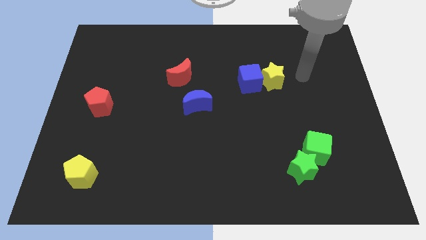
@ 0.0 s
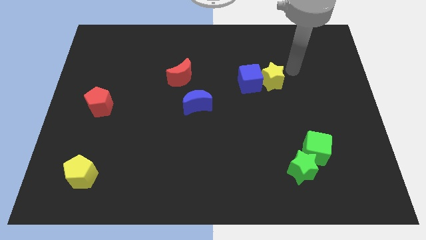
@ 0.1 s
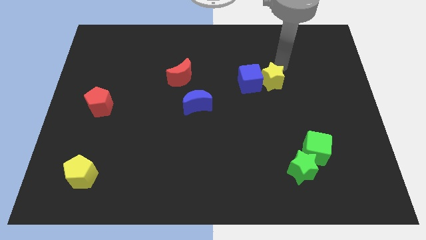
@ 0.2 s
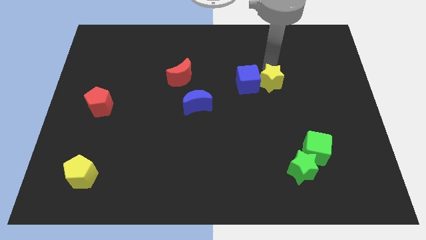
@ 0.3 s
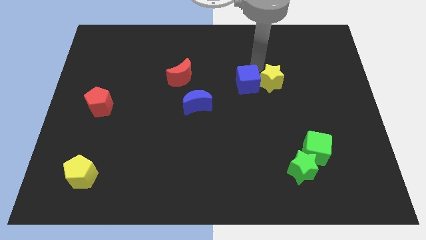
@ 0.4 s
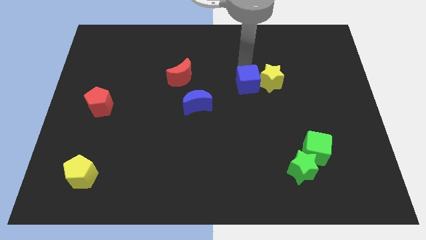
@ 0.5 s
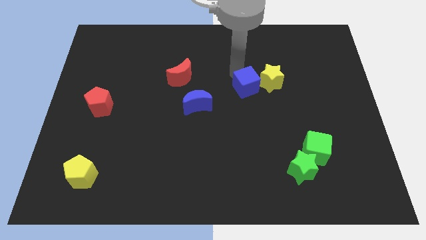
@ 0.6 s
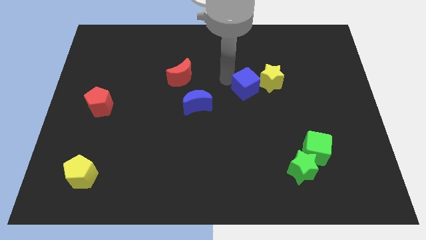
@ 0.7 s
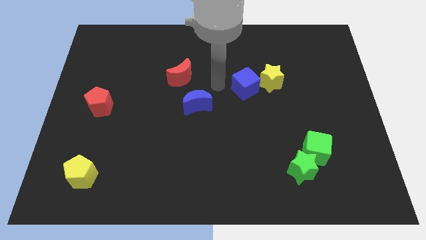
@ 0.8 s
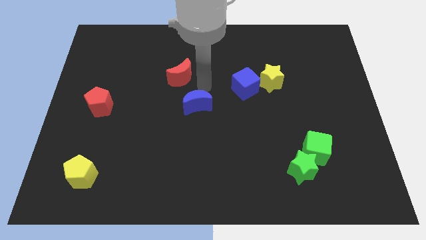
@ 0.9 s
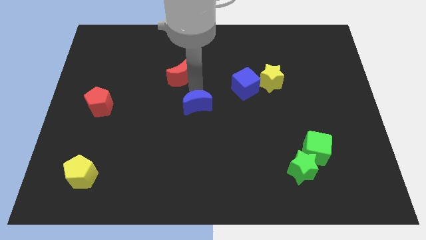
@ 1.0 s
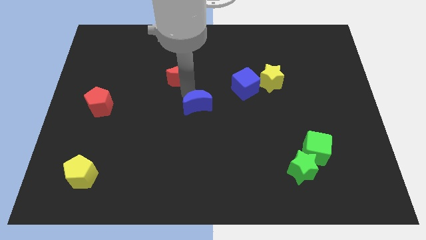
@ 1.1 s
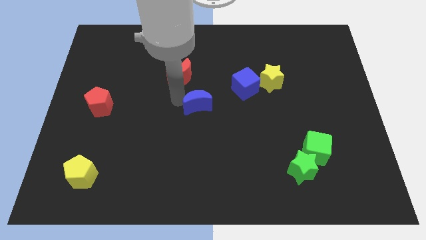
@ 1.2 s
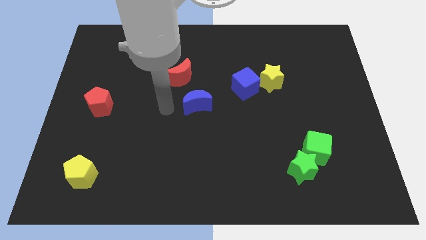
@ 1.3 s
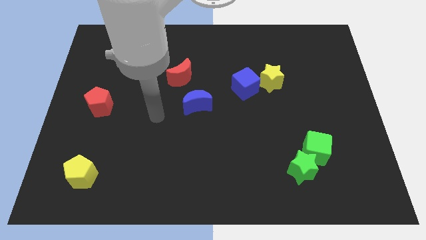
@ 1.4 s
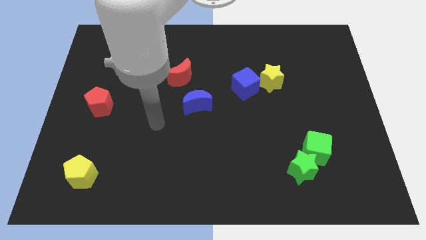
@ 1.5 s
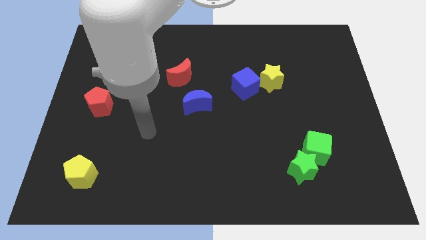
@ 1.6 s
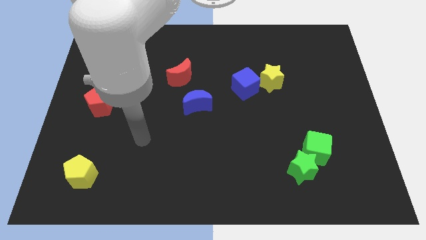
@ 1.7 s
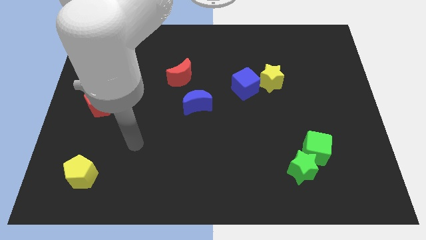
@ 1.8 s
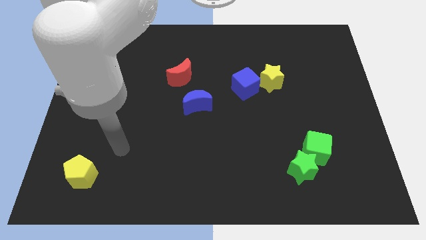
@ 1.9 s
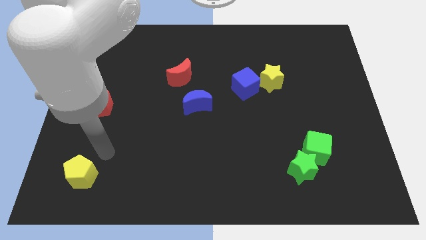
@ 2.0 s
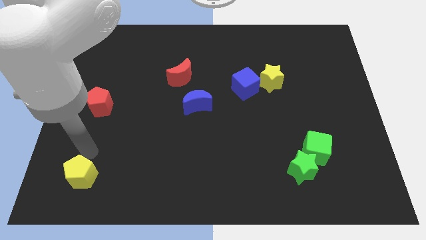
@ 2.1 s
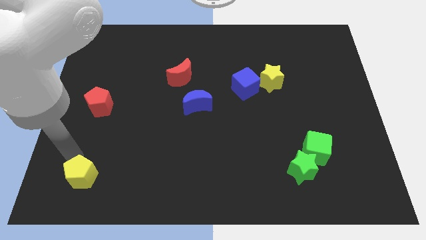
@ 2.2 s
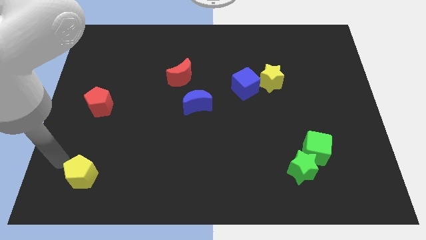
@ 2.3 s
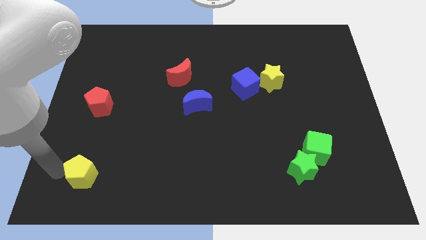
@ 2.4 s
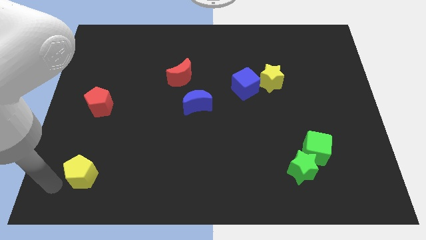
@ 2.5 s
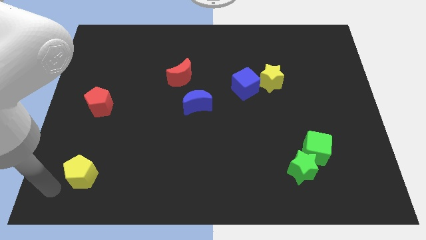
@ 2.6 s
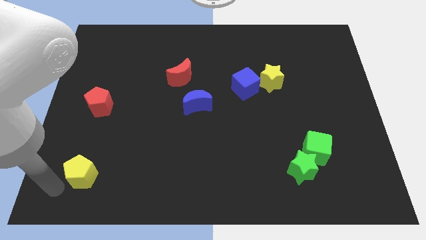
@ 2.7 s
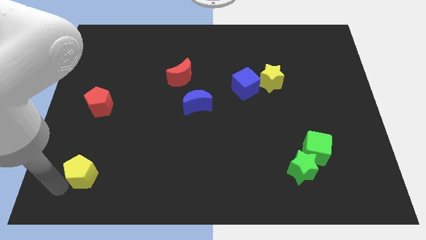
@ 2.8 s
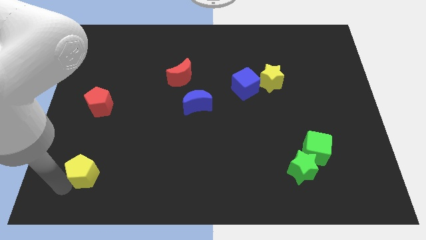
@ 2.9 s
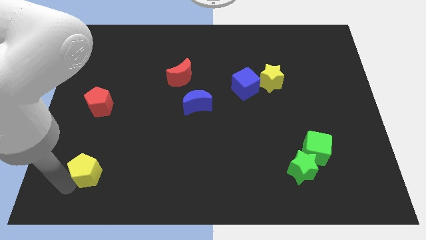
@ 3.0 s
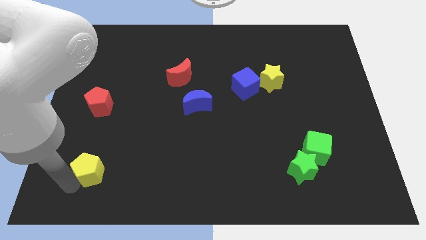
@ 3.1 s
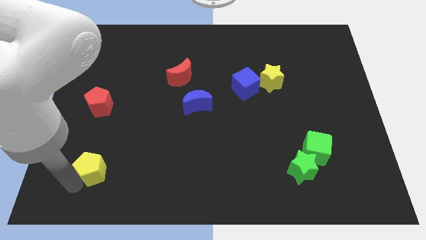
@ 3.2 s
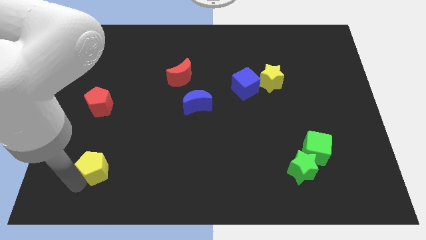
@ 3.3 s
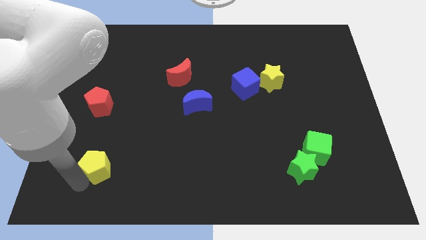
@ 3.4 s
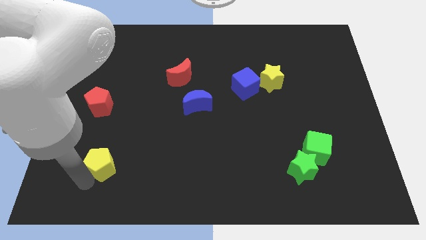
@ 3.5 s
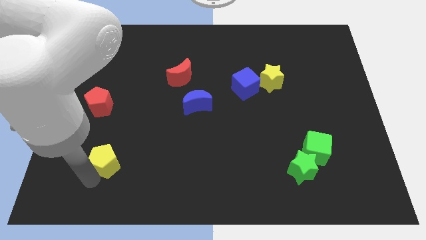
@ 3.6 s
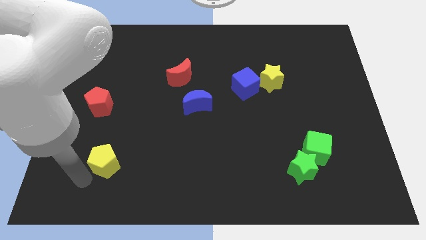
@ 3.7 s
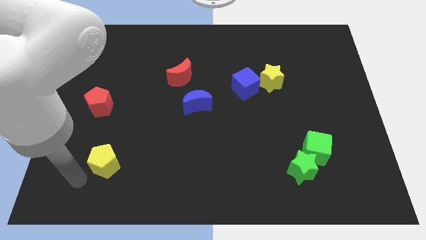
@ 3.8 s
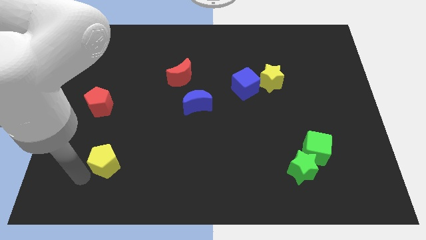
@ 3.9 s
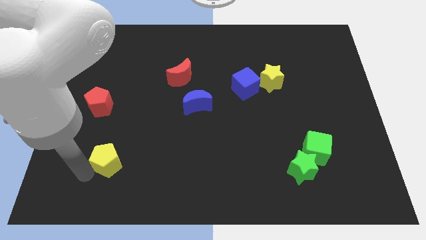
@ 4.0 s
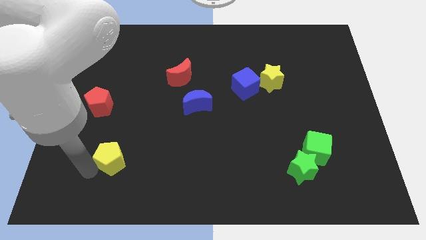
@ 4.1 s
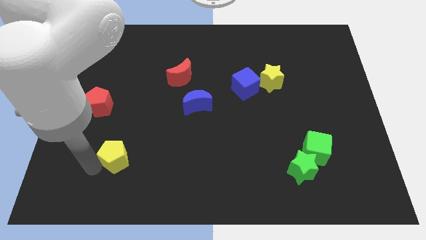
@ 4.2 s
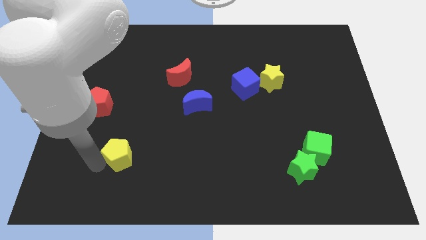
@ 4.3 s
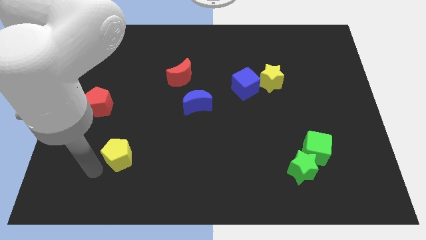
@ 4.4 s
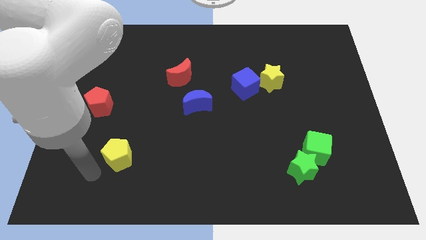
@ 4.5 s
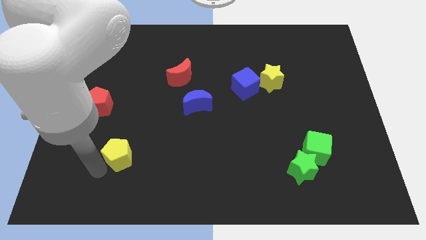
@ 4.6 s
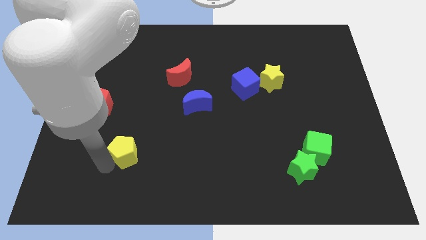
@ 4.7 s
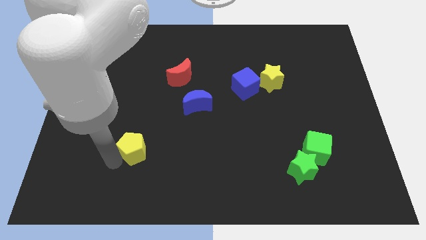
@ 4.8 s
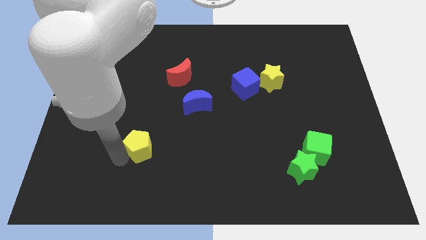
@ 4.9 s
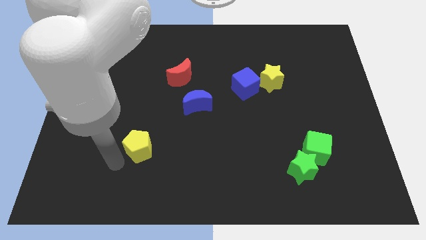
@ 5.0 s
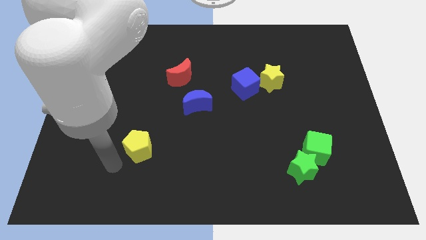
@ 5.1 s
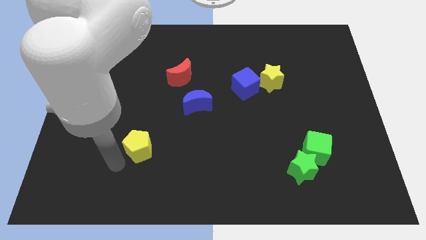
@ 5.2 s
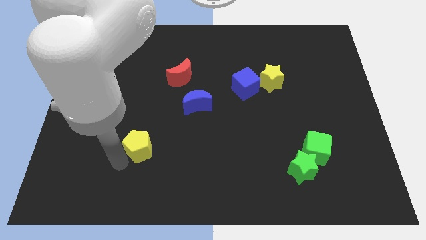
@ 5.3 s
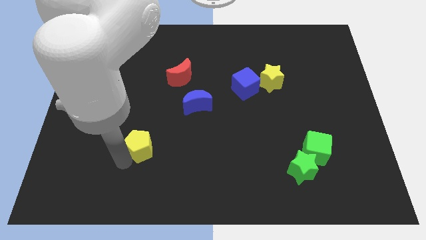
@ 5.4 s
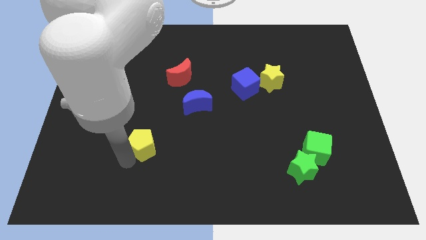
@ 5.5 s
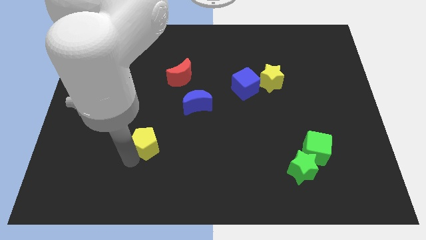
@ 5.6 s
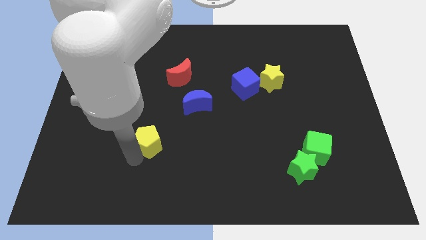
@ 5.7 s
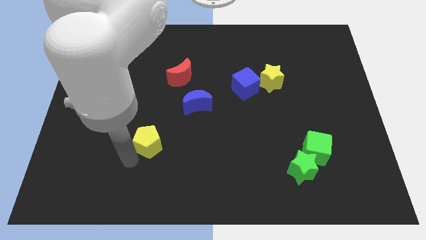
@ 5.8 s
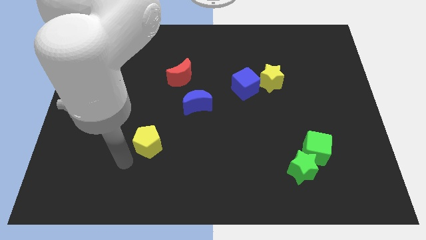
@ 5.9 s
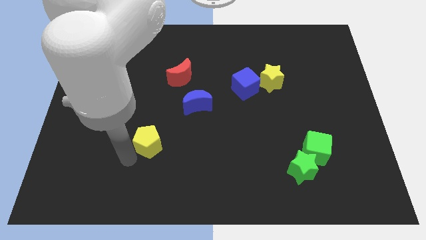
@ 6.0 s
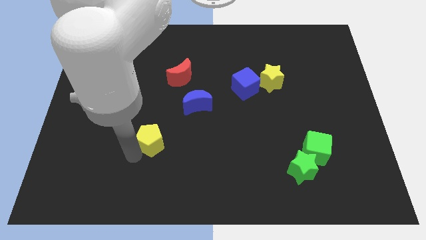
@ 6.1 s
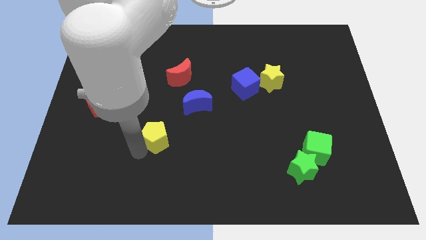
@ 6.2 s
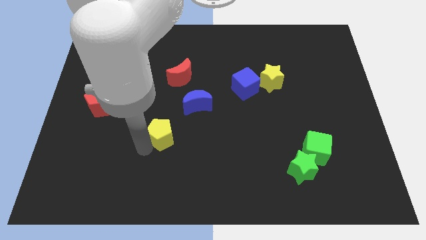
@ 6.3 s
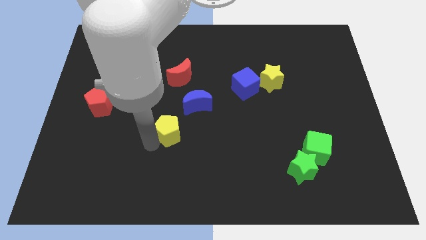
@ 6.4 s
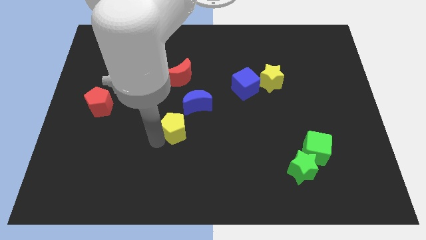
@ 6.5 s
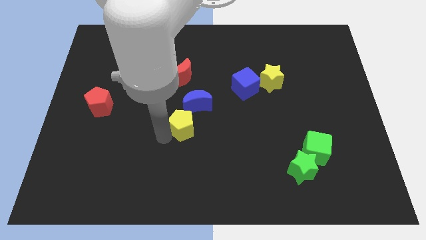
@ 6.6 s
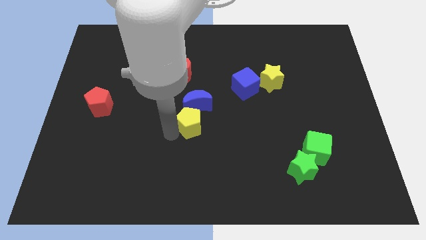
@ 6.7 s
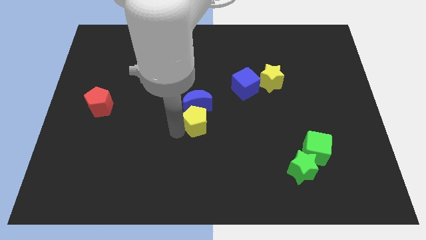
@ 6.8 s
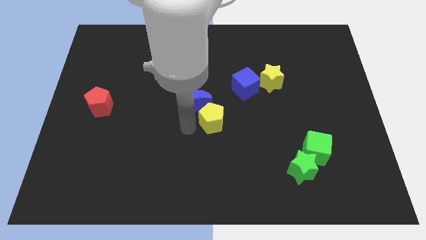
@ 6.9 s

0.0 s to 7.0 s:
move the yellow pentagon to the right side of the blue moon

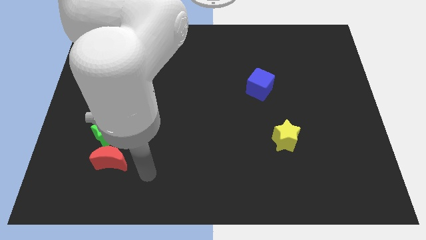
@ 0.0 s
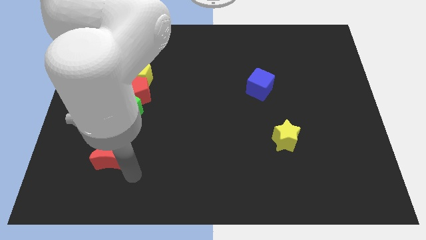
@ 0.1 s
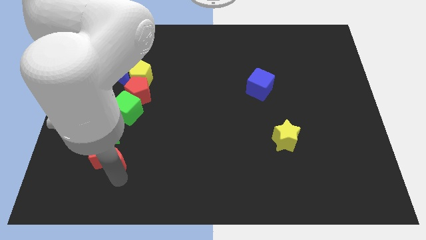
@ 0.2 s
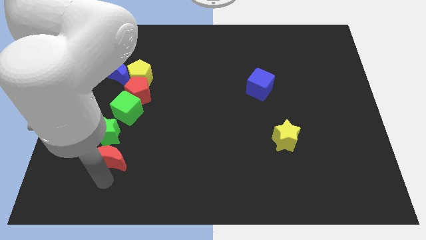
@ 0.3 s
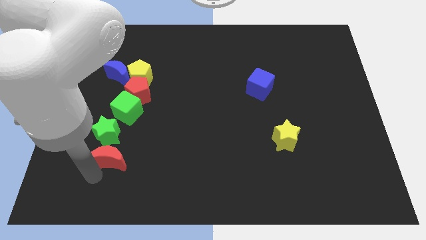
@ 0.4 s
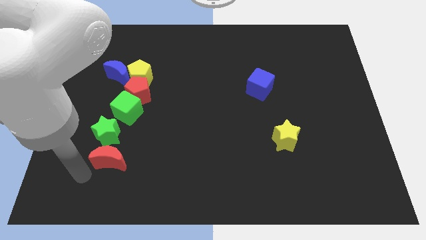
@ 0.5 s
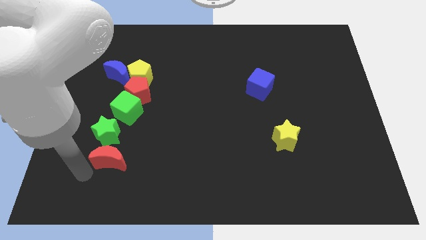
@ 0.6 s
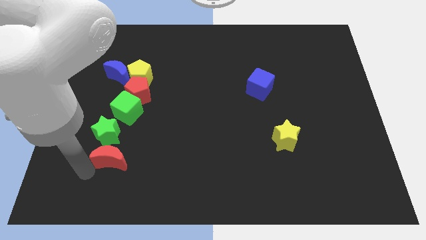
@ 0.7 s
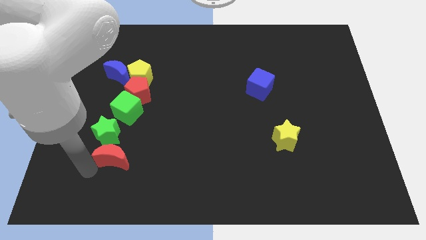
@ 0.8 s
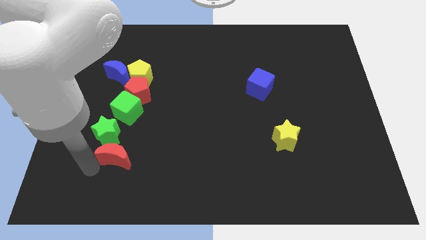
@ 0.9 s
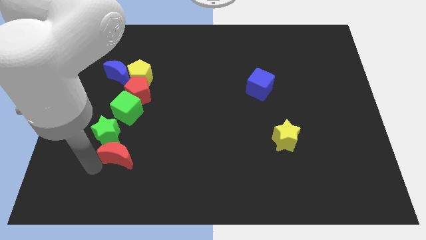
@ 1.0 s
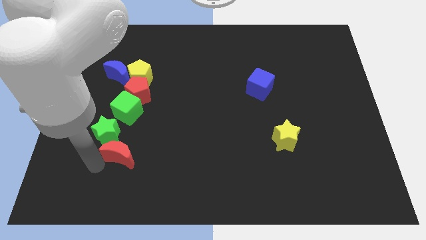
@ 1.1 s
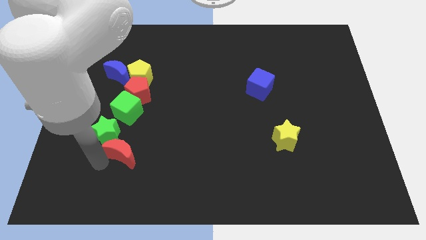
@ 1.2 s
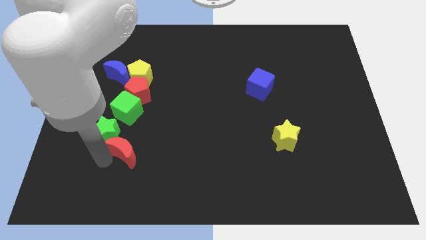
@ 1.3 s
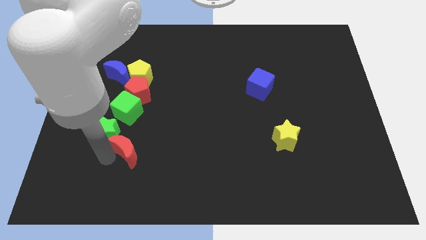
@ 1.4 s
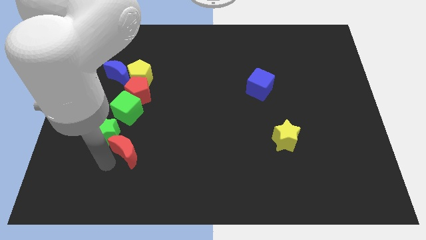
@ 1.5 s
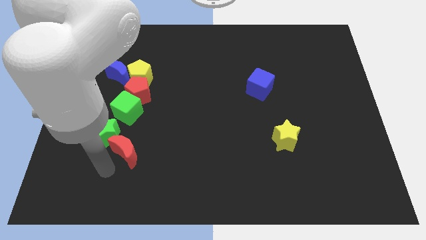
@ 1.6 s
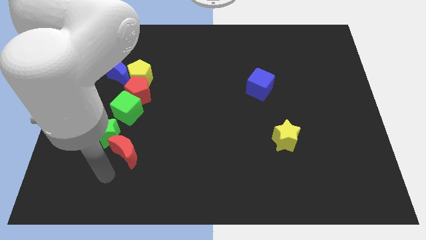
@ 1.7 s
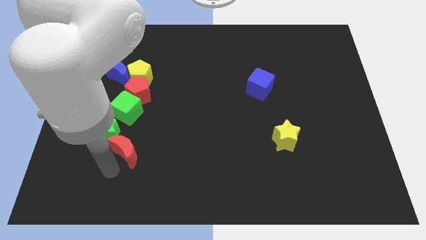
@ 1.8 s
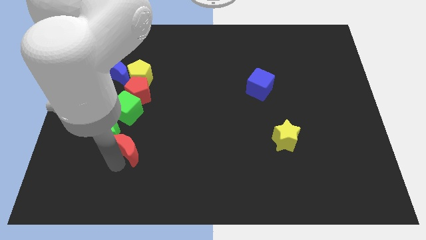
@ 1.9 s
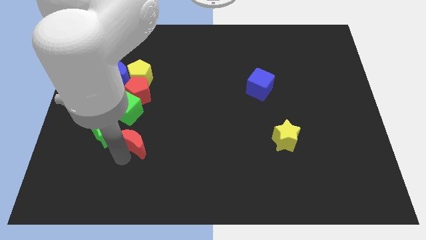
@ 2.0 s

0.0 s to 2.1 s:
move the red moon to the bottom right side of the green cube
